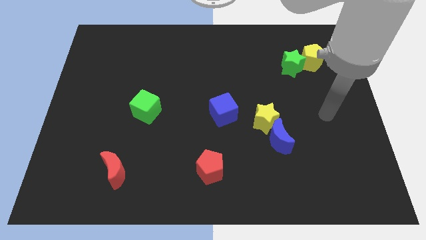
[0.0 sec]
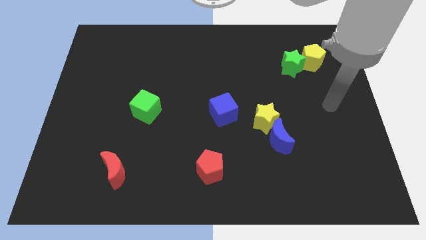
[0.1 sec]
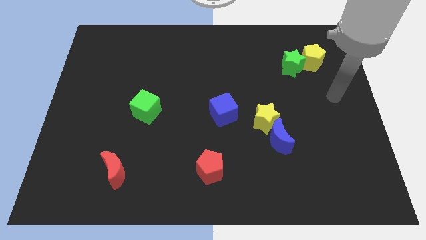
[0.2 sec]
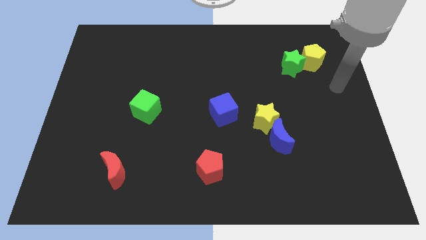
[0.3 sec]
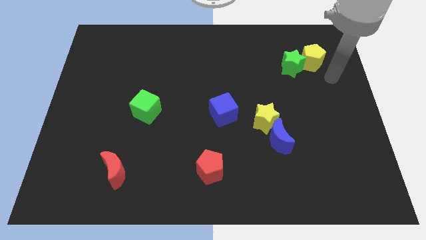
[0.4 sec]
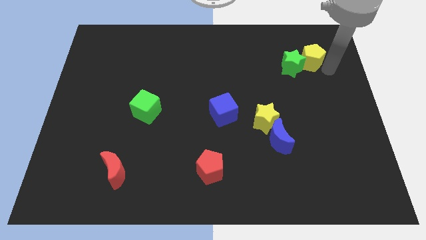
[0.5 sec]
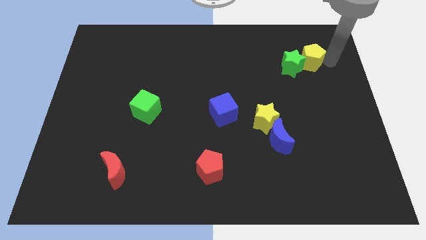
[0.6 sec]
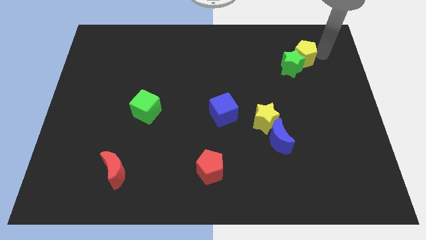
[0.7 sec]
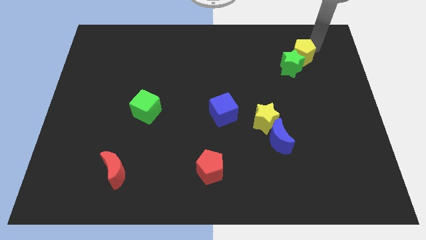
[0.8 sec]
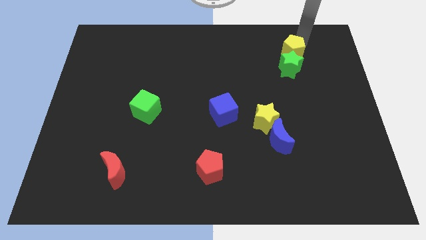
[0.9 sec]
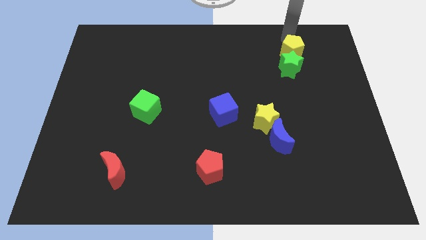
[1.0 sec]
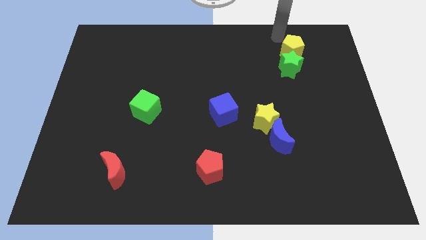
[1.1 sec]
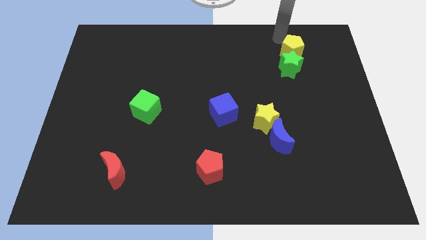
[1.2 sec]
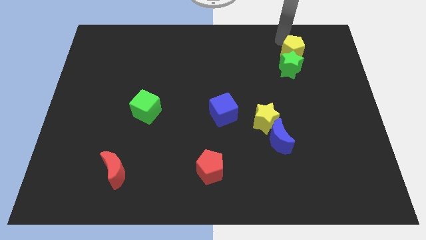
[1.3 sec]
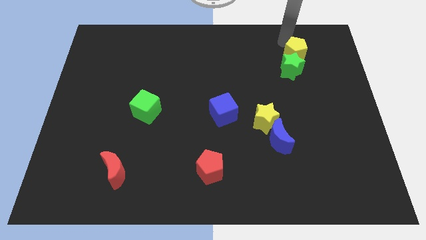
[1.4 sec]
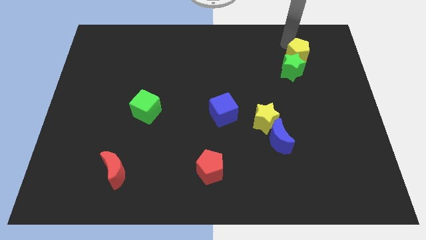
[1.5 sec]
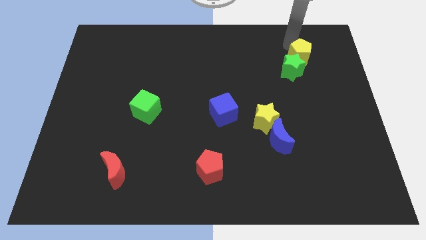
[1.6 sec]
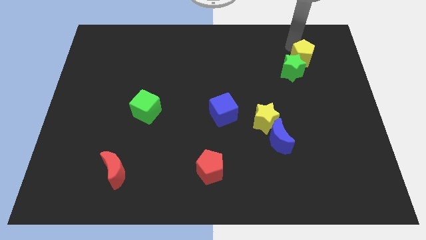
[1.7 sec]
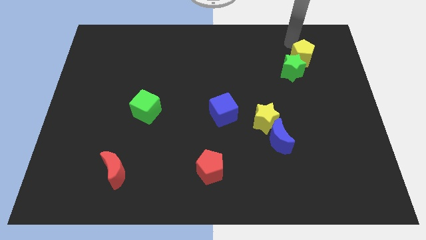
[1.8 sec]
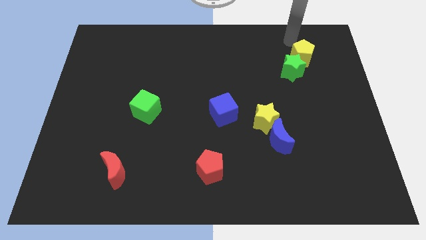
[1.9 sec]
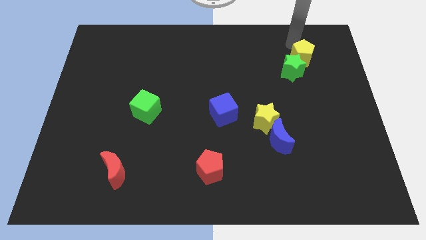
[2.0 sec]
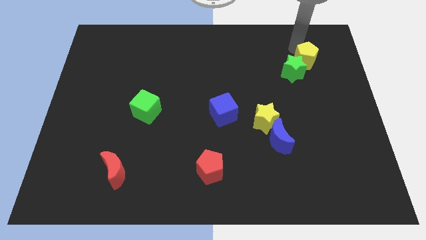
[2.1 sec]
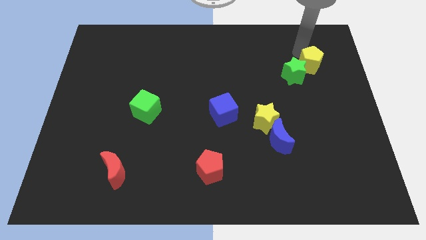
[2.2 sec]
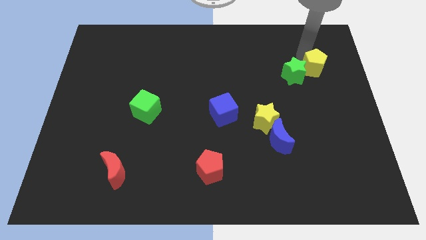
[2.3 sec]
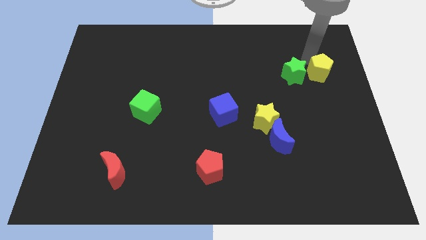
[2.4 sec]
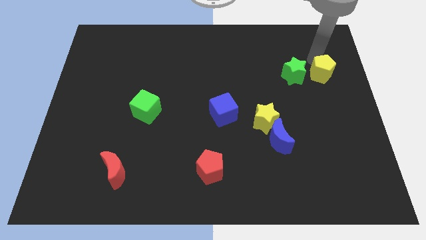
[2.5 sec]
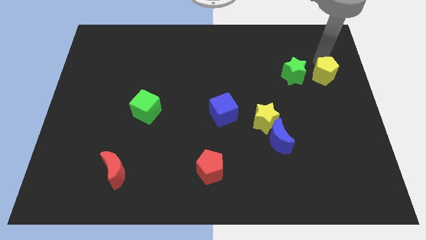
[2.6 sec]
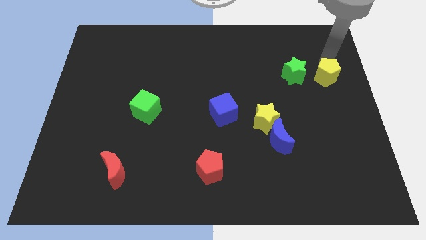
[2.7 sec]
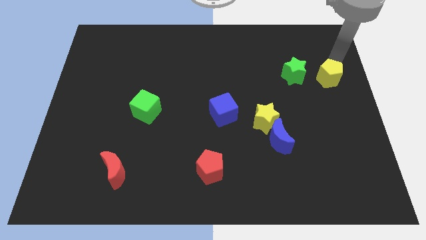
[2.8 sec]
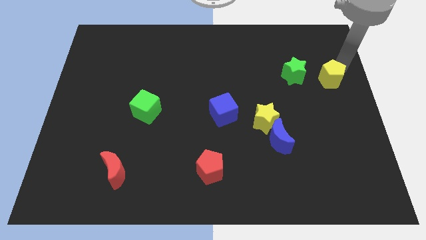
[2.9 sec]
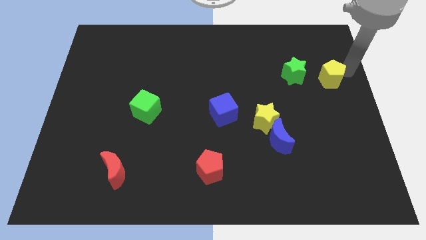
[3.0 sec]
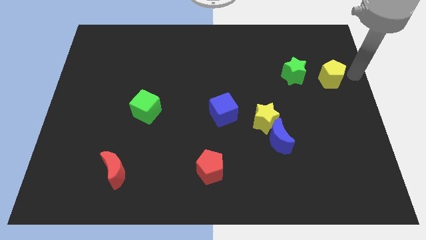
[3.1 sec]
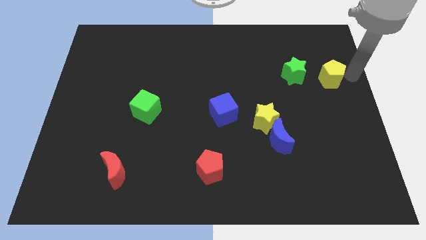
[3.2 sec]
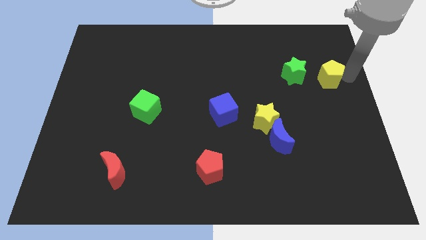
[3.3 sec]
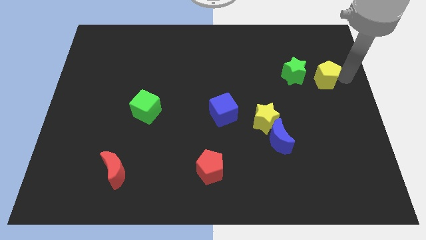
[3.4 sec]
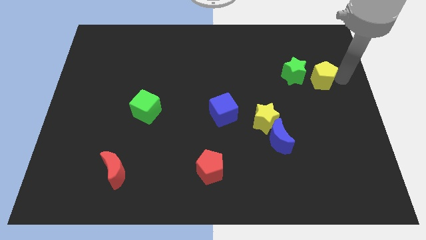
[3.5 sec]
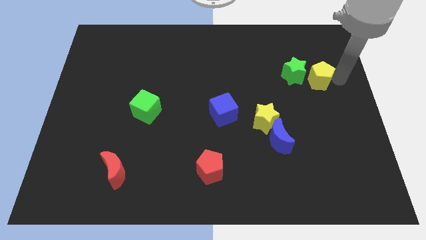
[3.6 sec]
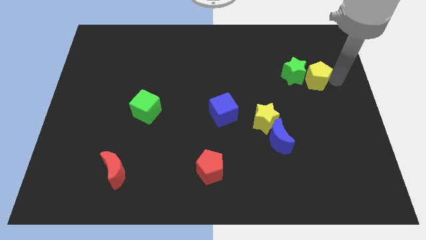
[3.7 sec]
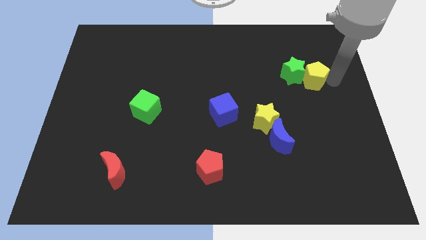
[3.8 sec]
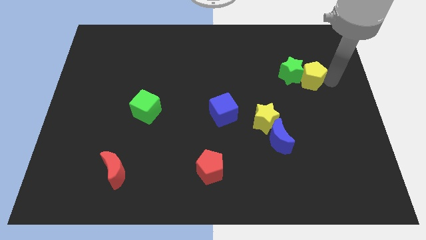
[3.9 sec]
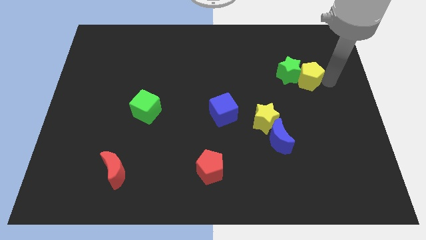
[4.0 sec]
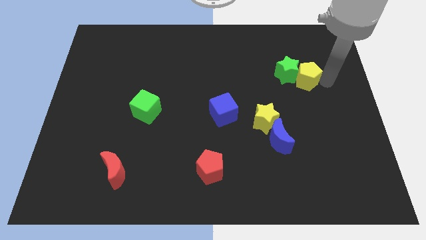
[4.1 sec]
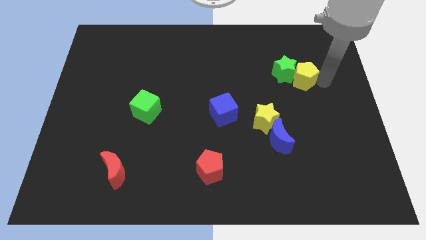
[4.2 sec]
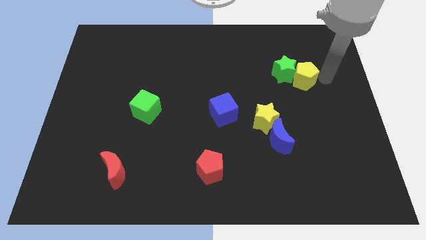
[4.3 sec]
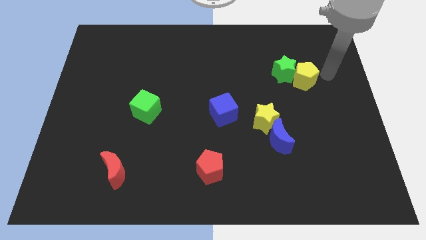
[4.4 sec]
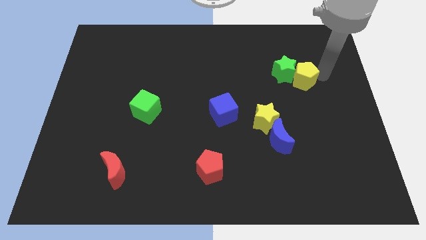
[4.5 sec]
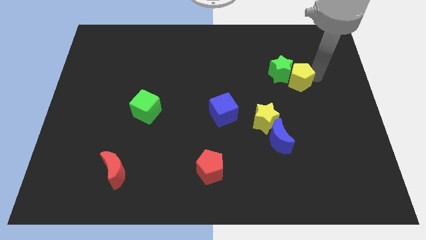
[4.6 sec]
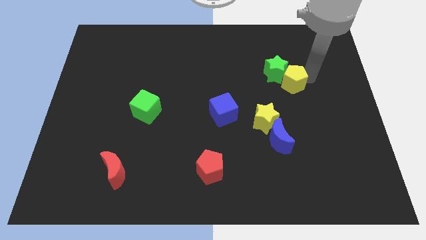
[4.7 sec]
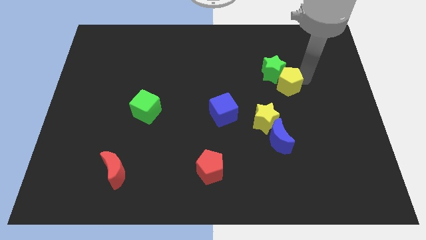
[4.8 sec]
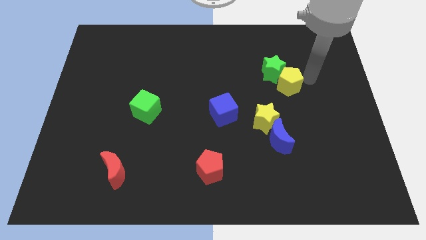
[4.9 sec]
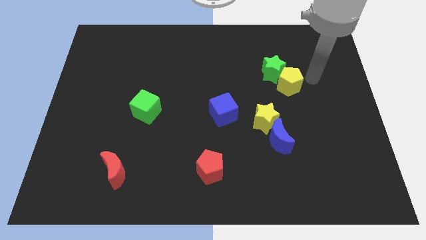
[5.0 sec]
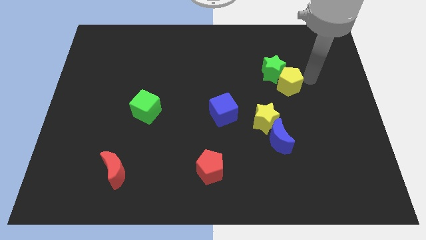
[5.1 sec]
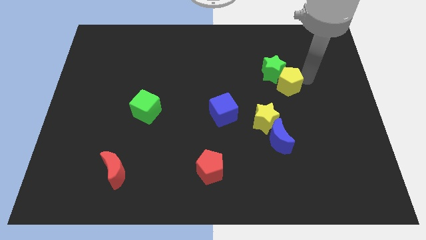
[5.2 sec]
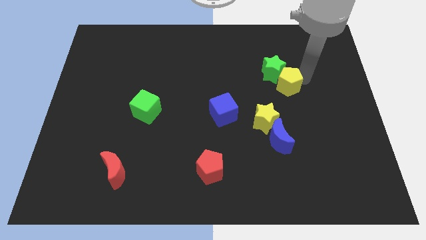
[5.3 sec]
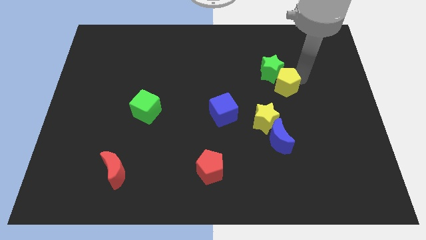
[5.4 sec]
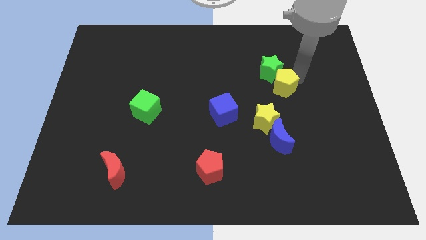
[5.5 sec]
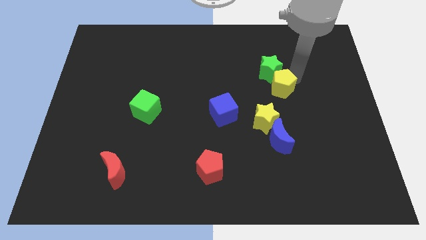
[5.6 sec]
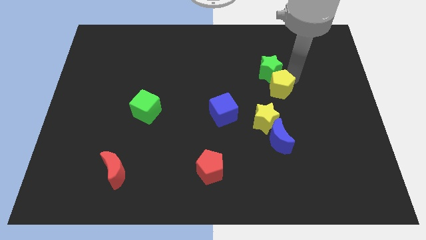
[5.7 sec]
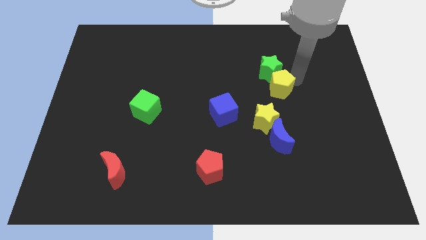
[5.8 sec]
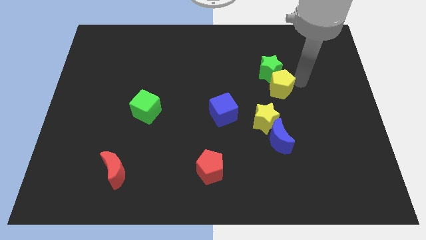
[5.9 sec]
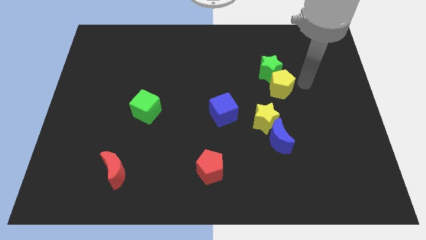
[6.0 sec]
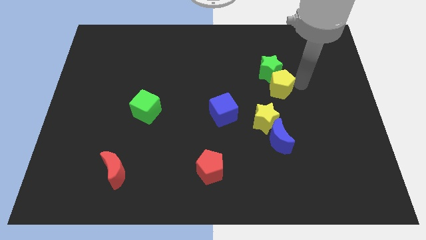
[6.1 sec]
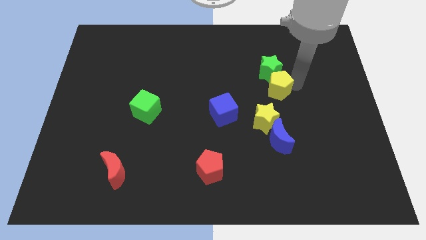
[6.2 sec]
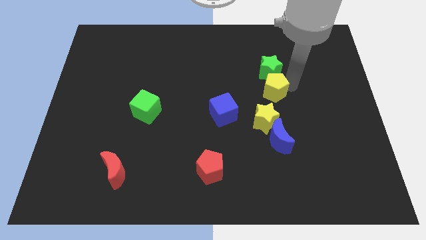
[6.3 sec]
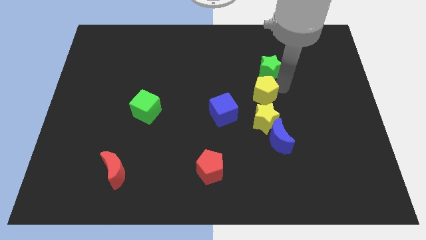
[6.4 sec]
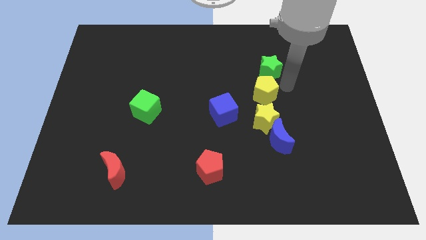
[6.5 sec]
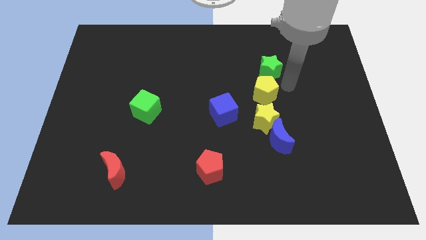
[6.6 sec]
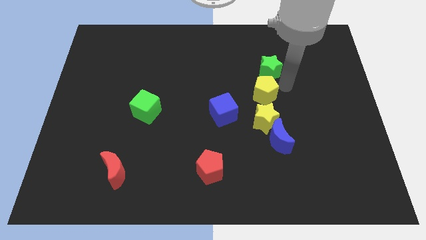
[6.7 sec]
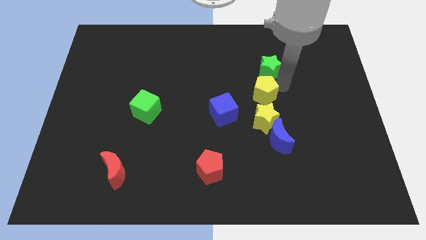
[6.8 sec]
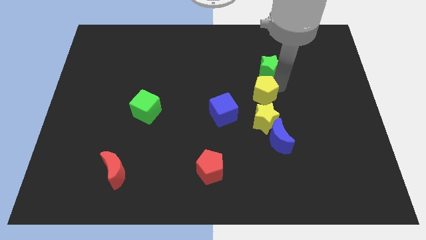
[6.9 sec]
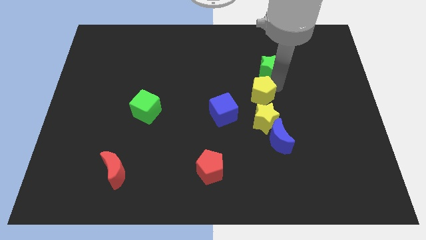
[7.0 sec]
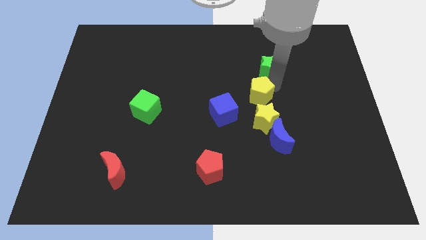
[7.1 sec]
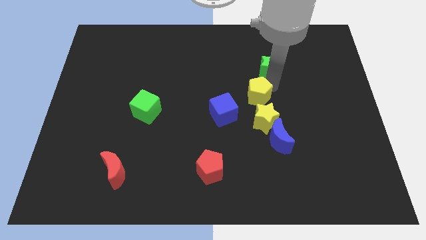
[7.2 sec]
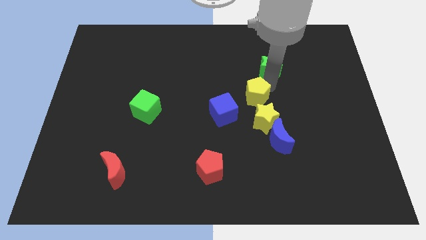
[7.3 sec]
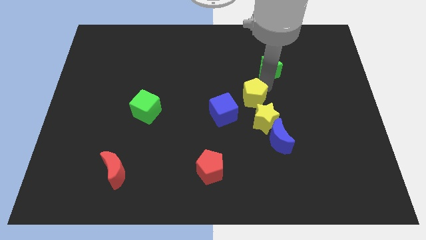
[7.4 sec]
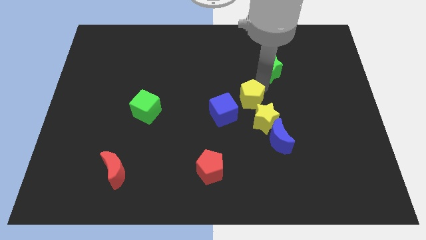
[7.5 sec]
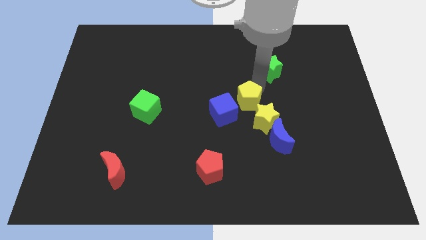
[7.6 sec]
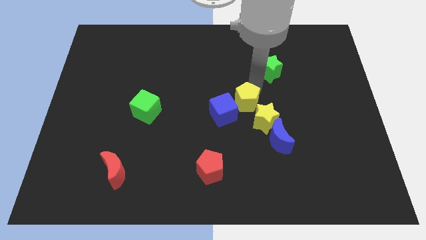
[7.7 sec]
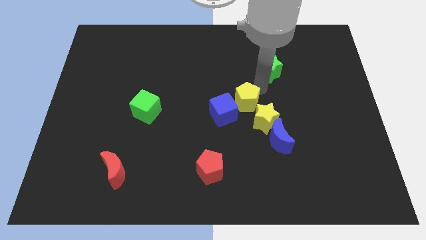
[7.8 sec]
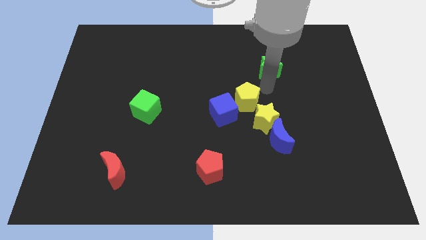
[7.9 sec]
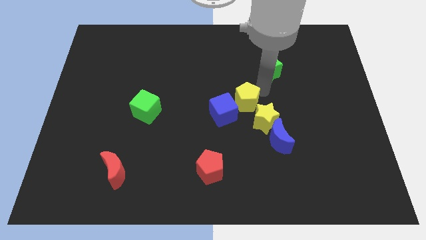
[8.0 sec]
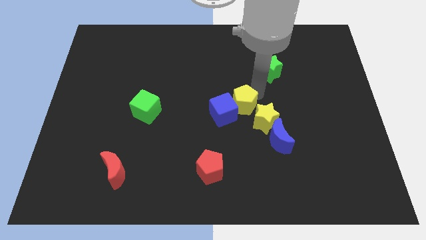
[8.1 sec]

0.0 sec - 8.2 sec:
push the yellow pentagon next to the blue cube
